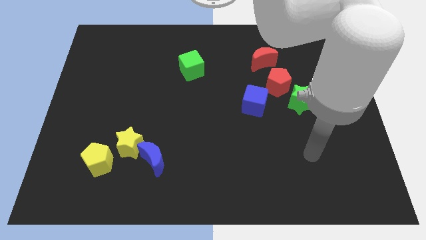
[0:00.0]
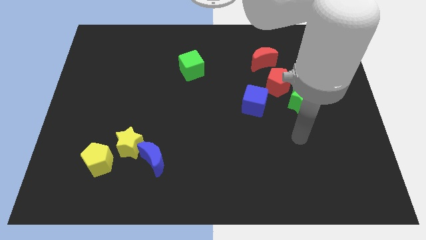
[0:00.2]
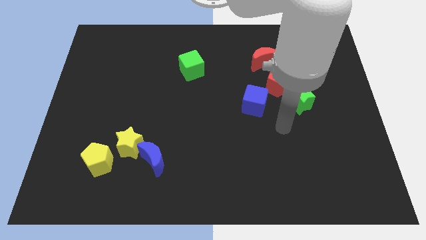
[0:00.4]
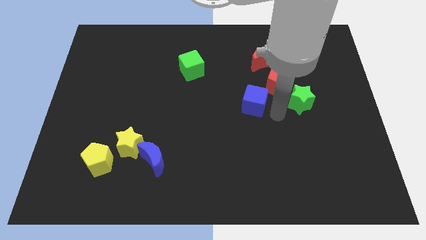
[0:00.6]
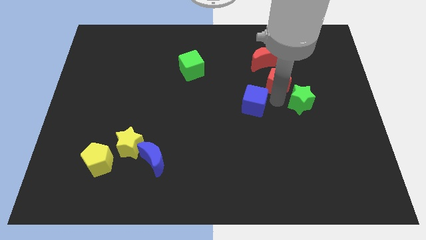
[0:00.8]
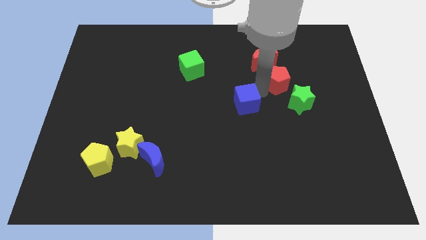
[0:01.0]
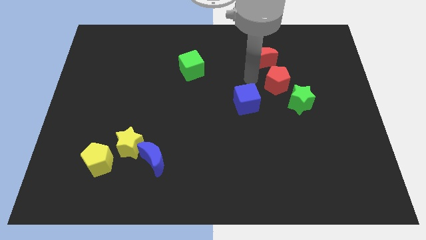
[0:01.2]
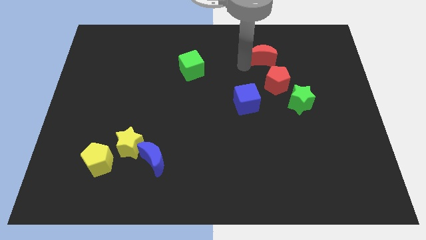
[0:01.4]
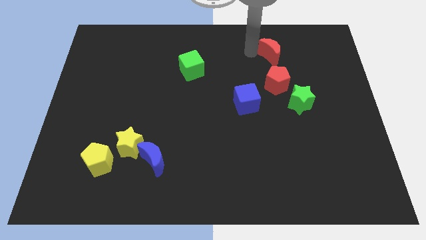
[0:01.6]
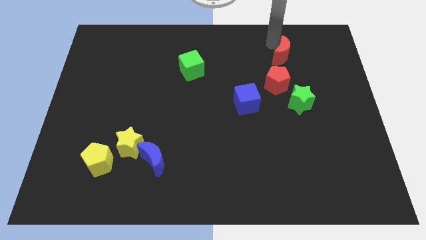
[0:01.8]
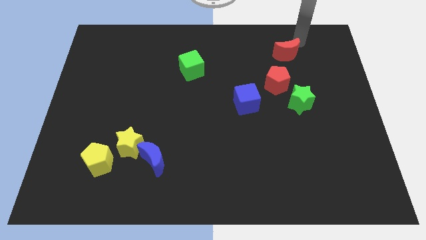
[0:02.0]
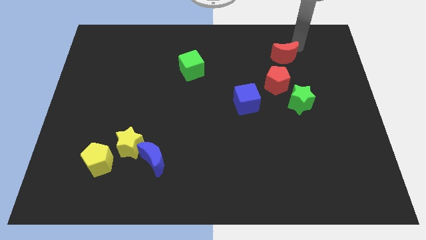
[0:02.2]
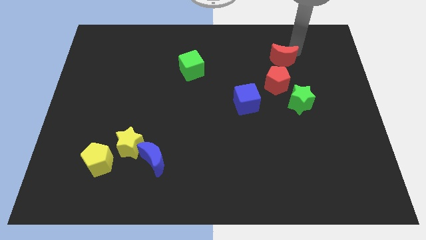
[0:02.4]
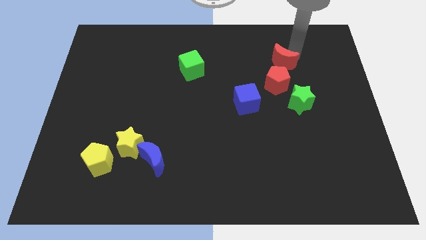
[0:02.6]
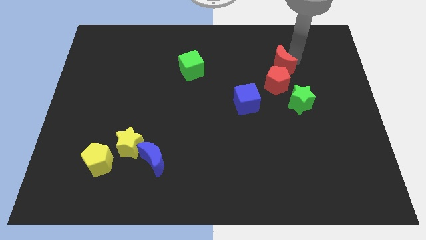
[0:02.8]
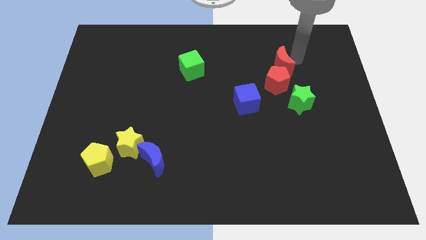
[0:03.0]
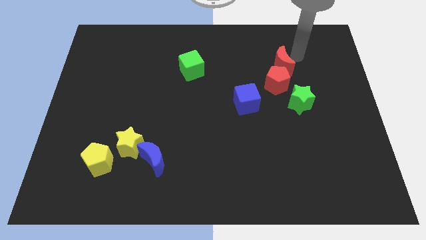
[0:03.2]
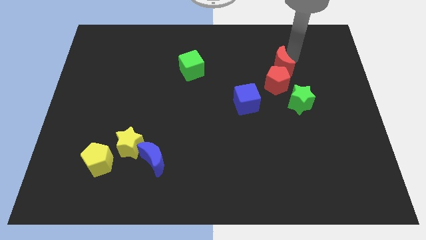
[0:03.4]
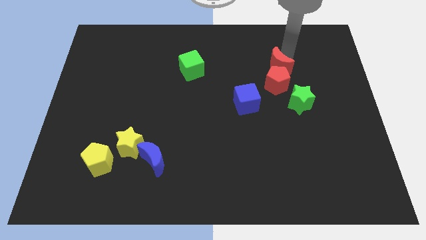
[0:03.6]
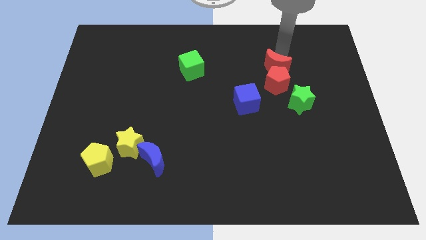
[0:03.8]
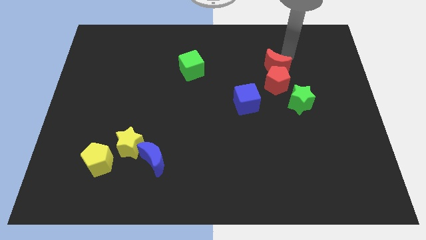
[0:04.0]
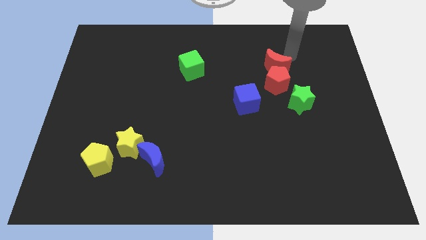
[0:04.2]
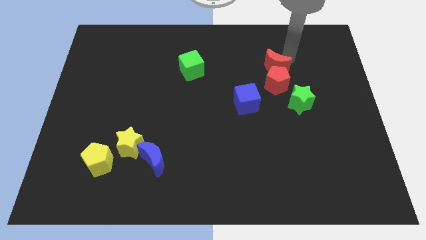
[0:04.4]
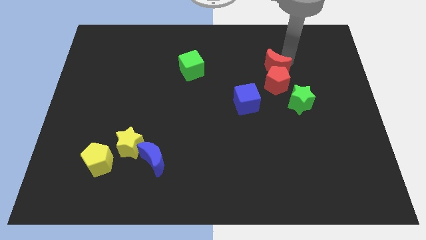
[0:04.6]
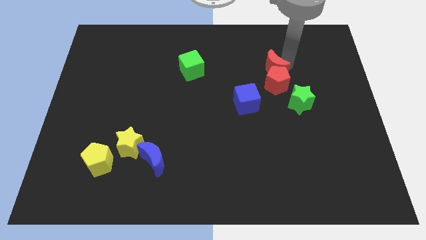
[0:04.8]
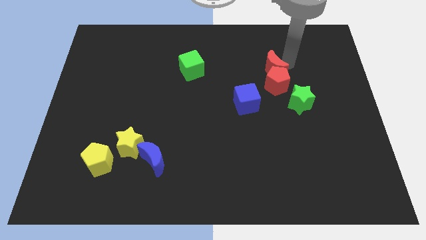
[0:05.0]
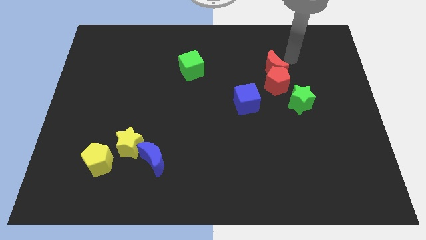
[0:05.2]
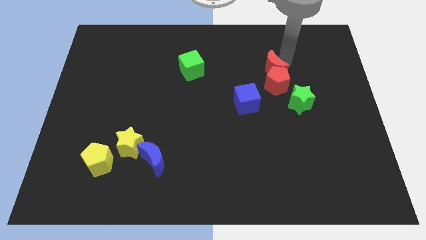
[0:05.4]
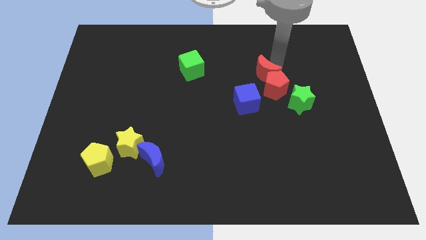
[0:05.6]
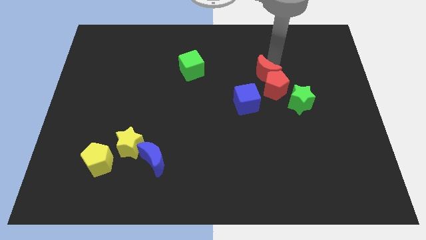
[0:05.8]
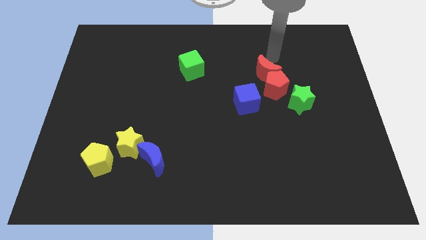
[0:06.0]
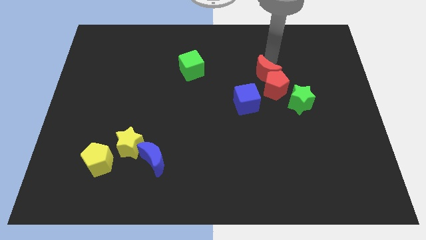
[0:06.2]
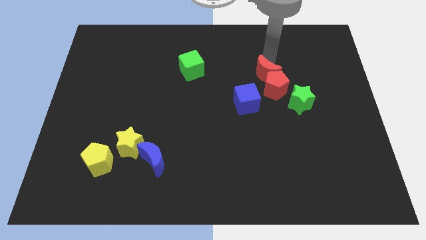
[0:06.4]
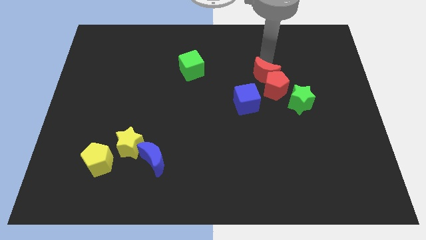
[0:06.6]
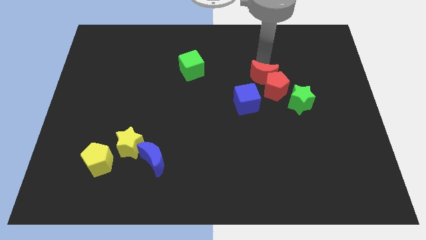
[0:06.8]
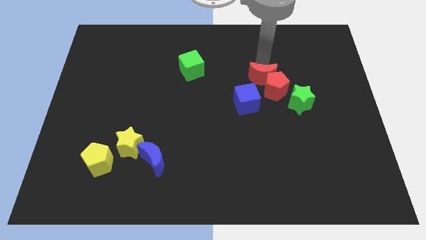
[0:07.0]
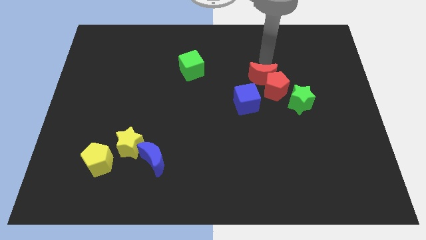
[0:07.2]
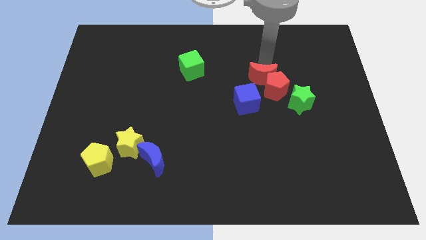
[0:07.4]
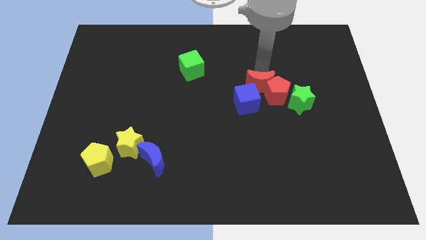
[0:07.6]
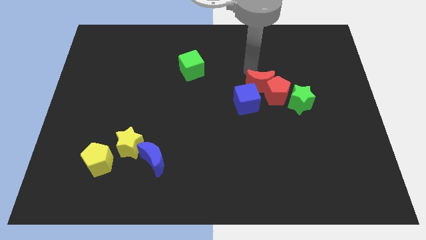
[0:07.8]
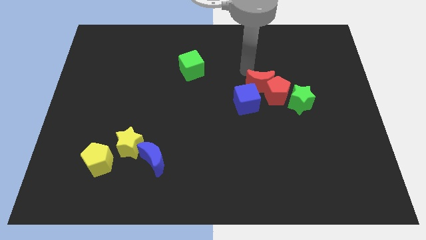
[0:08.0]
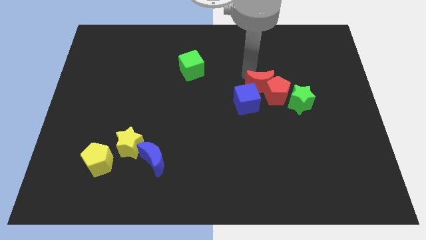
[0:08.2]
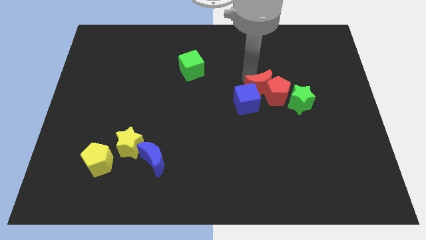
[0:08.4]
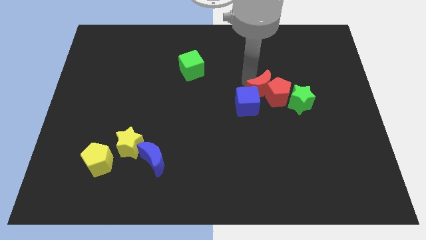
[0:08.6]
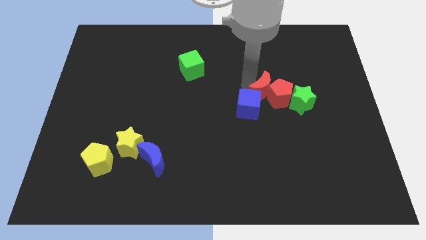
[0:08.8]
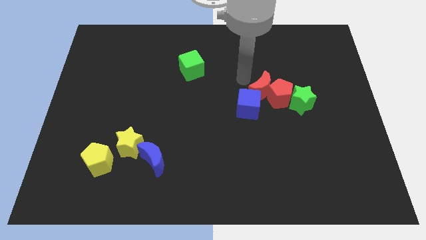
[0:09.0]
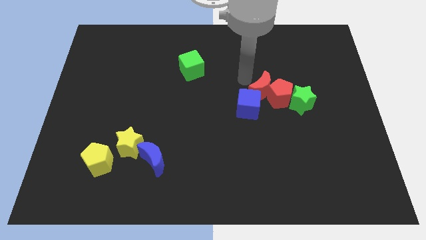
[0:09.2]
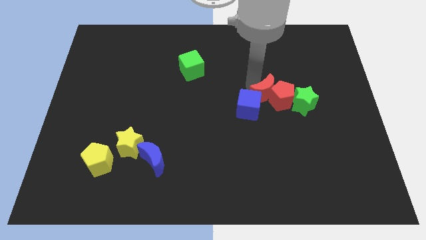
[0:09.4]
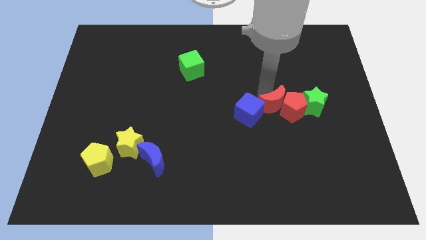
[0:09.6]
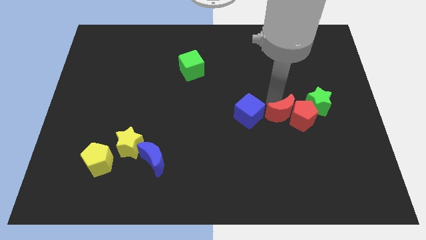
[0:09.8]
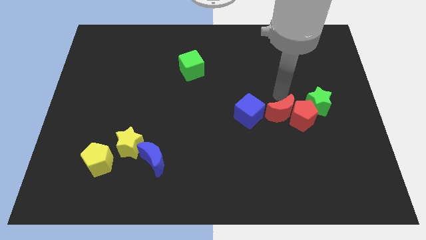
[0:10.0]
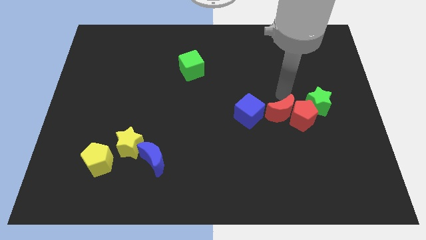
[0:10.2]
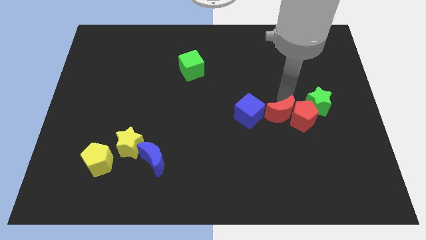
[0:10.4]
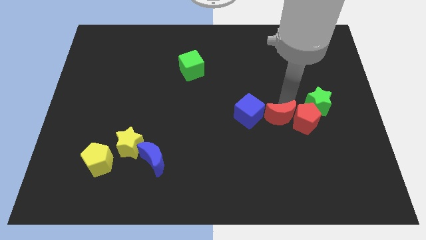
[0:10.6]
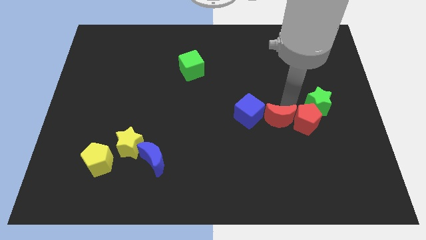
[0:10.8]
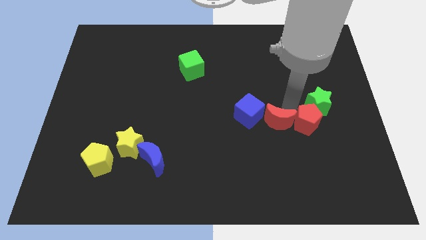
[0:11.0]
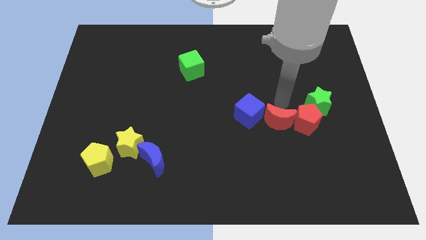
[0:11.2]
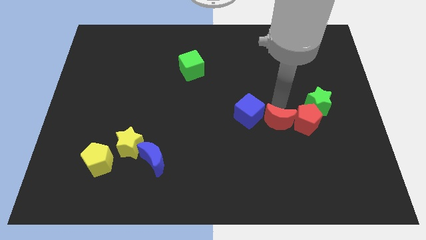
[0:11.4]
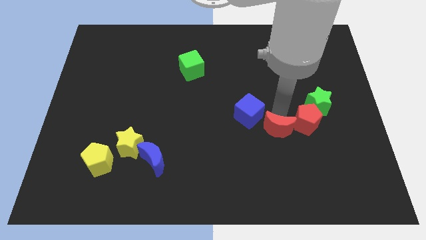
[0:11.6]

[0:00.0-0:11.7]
push the red moon down

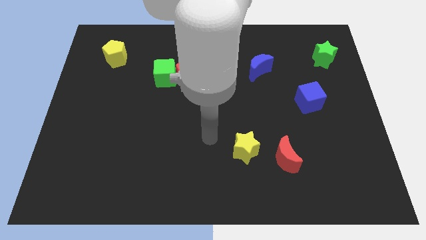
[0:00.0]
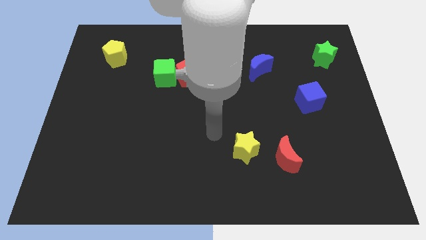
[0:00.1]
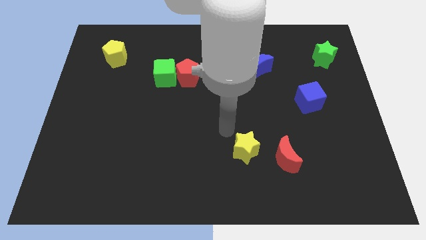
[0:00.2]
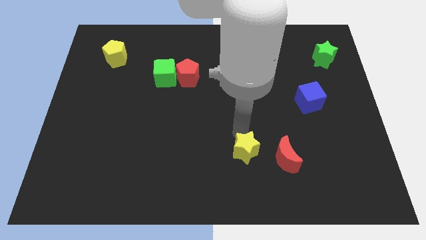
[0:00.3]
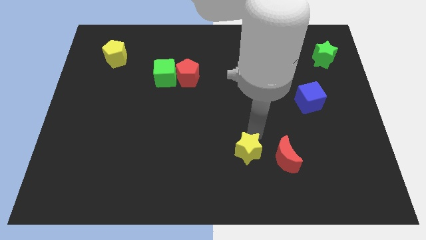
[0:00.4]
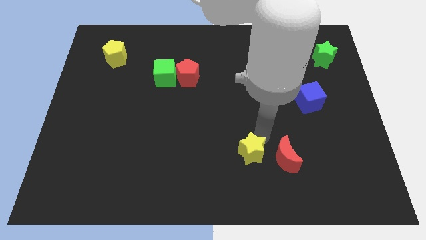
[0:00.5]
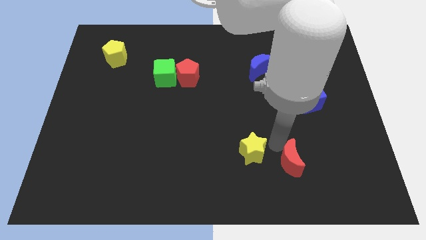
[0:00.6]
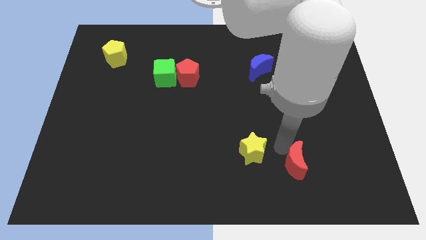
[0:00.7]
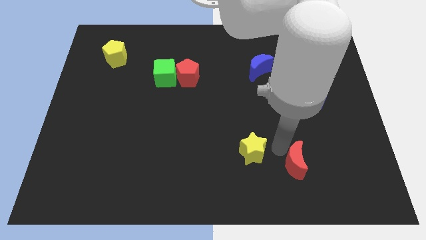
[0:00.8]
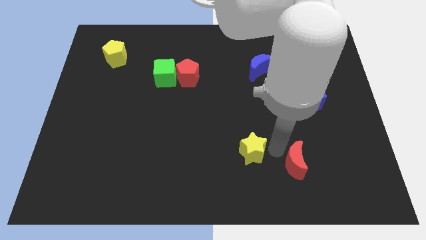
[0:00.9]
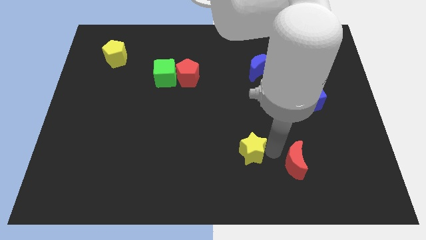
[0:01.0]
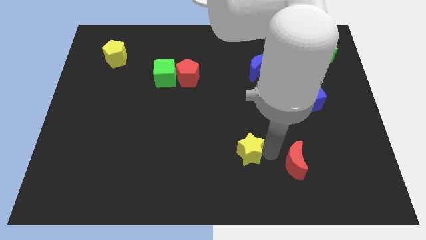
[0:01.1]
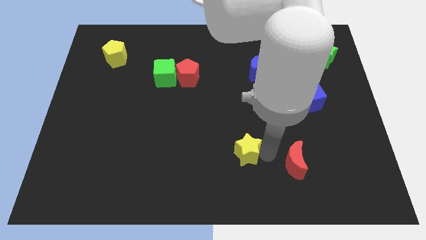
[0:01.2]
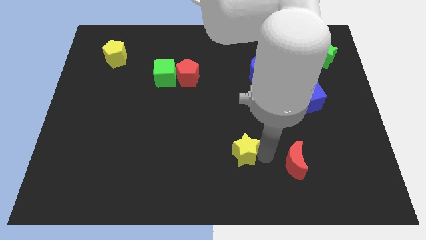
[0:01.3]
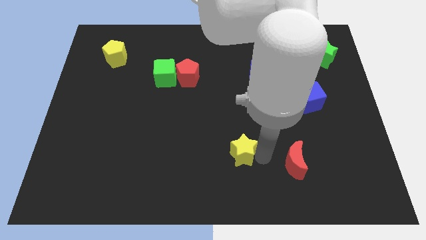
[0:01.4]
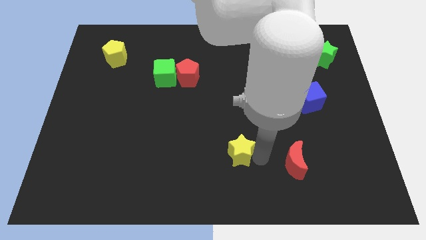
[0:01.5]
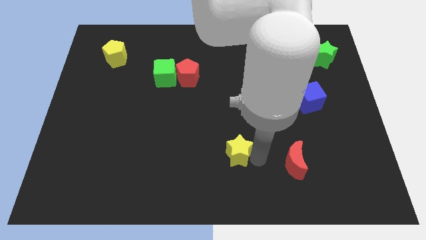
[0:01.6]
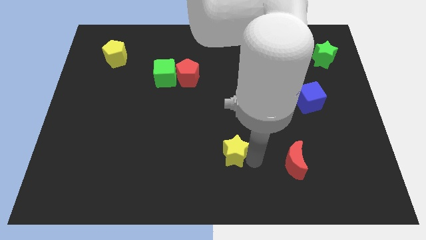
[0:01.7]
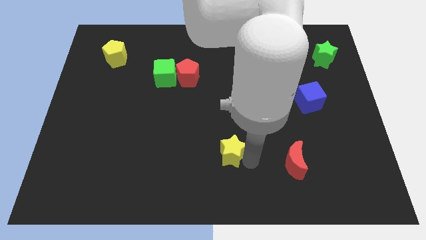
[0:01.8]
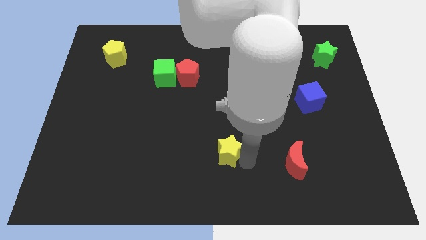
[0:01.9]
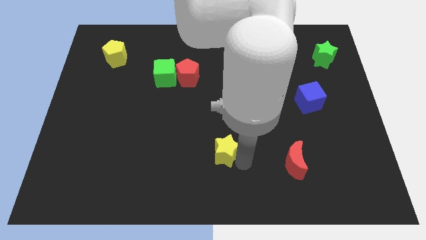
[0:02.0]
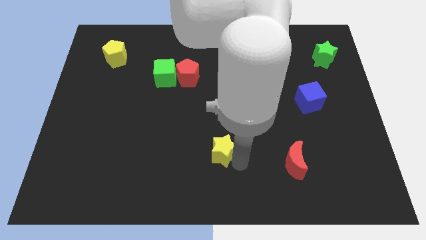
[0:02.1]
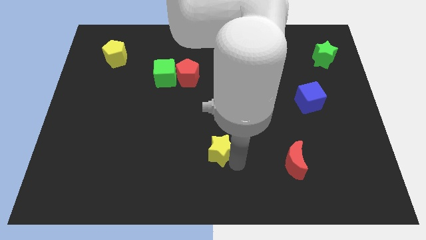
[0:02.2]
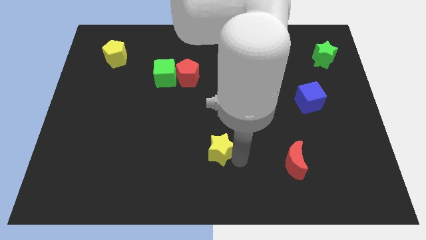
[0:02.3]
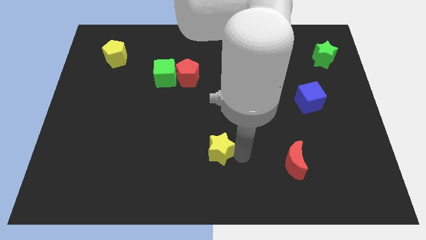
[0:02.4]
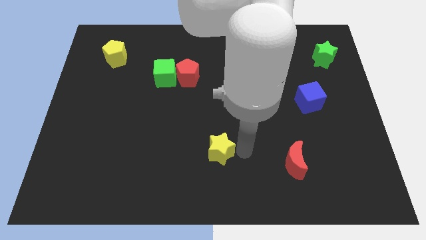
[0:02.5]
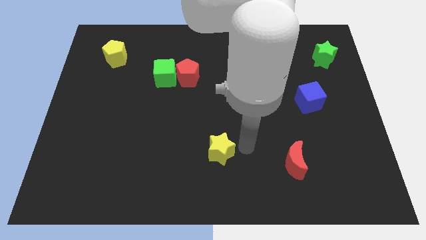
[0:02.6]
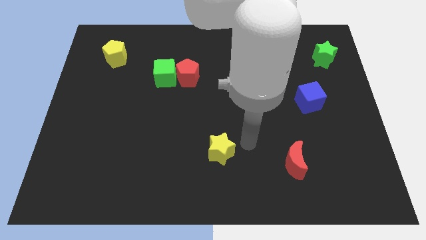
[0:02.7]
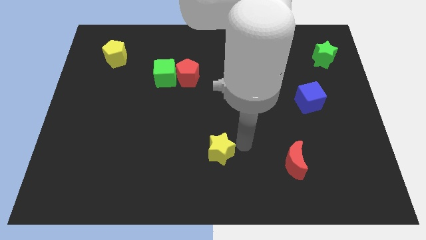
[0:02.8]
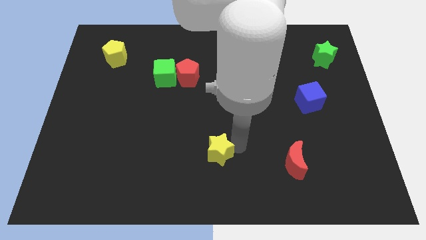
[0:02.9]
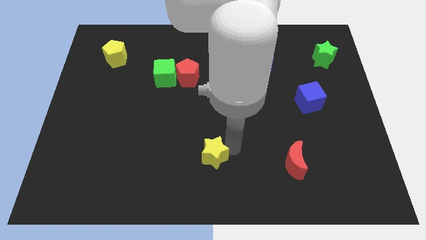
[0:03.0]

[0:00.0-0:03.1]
slightly push the yellow star to the left
